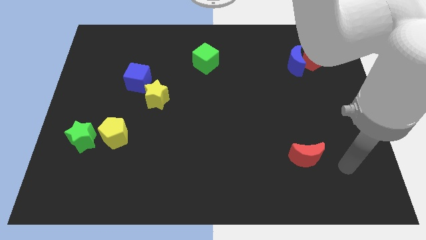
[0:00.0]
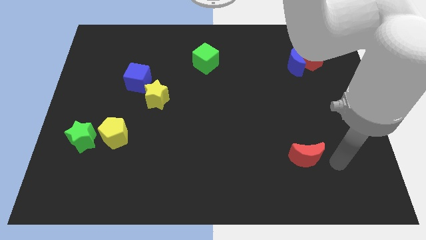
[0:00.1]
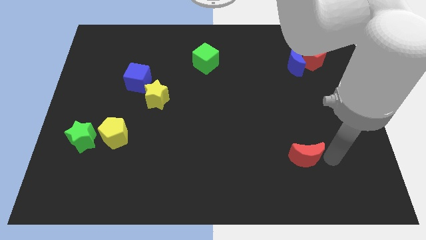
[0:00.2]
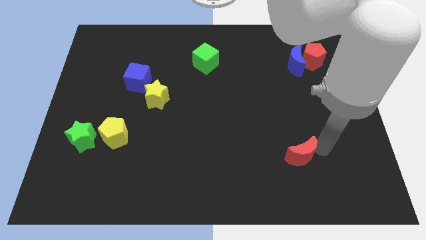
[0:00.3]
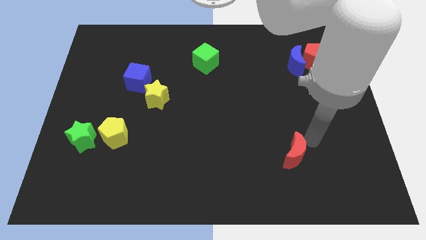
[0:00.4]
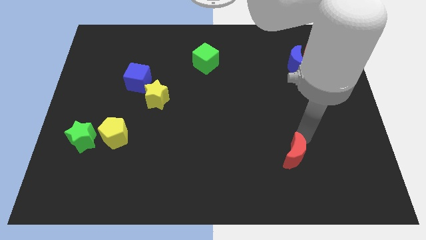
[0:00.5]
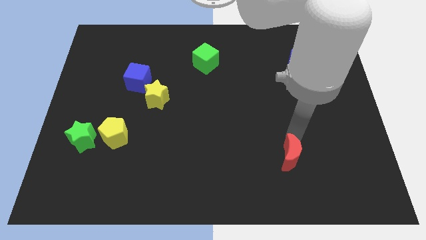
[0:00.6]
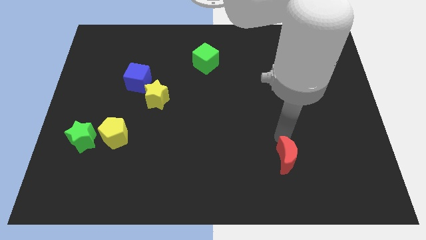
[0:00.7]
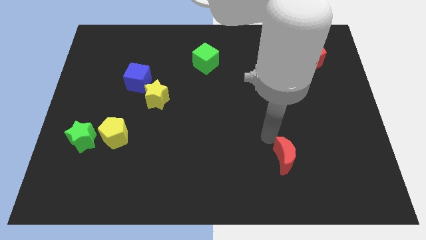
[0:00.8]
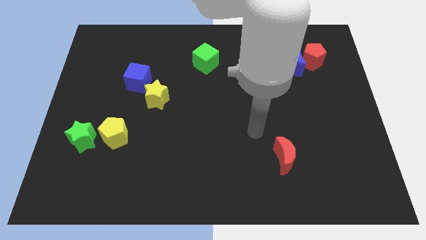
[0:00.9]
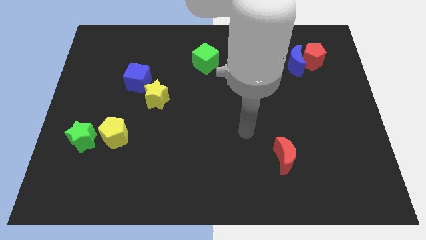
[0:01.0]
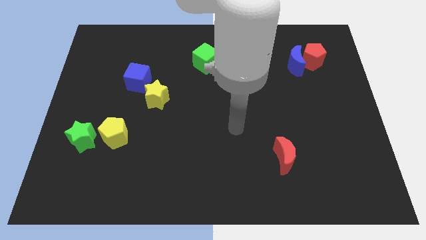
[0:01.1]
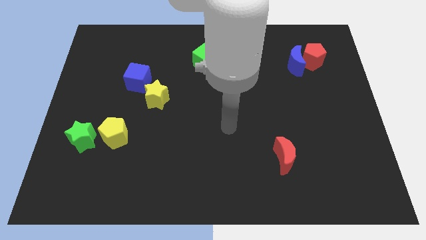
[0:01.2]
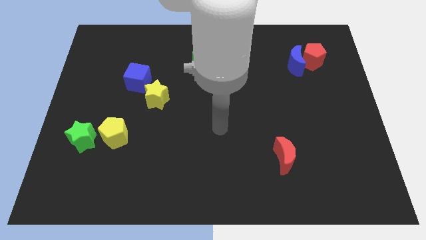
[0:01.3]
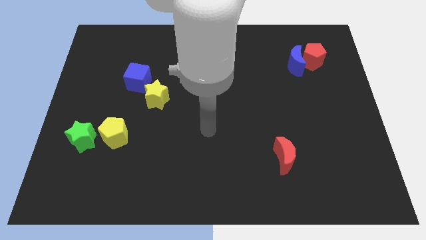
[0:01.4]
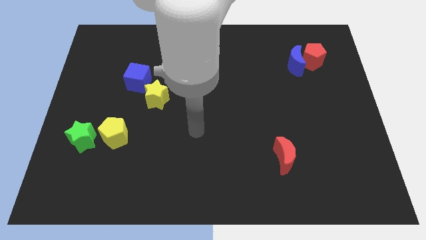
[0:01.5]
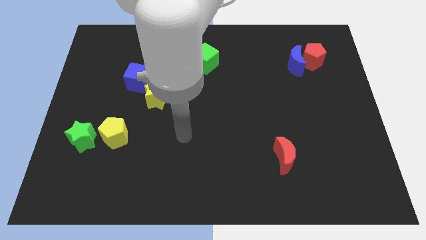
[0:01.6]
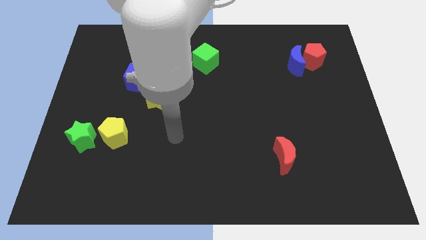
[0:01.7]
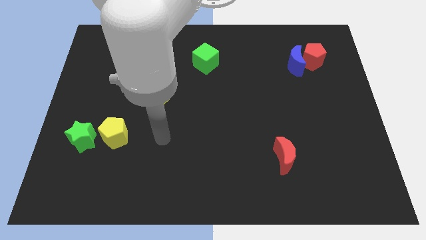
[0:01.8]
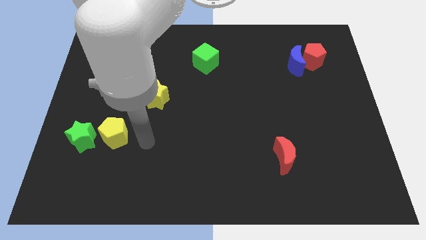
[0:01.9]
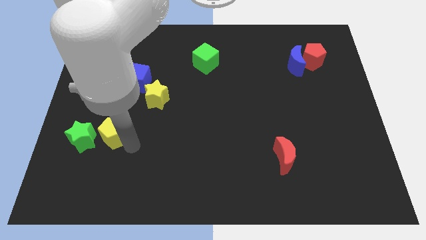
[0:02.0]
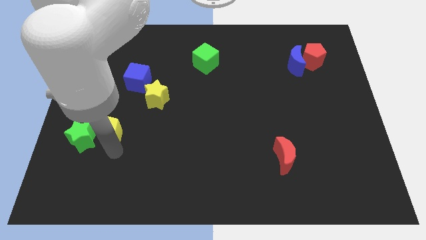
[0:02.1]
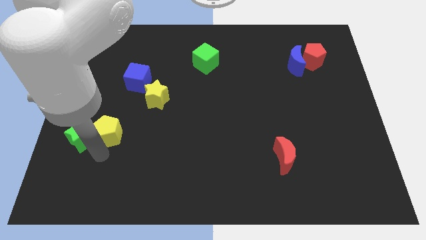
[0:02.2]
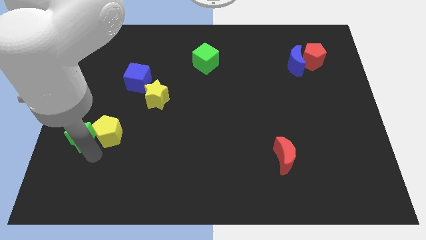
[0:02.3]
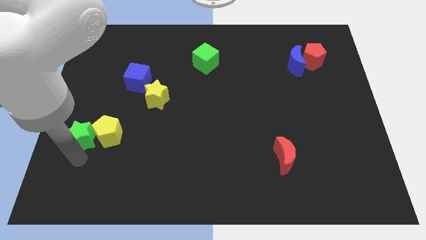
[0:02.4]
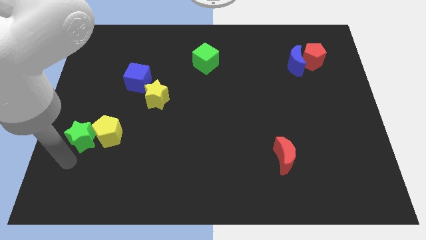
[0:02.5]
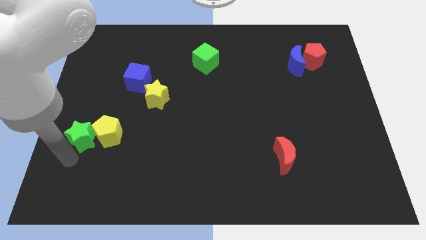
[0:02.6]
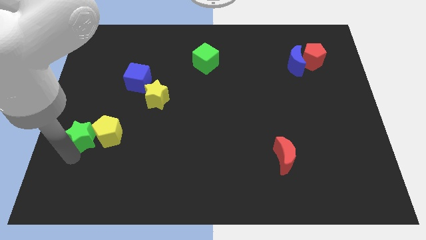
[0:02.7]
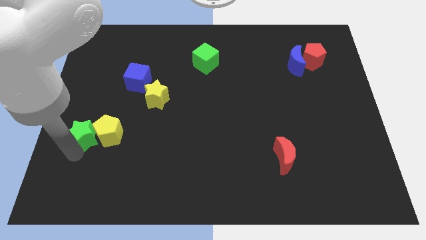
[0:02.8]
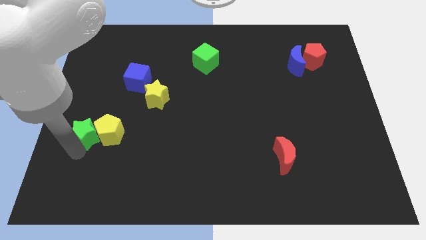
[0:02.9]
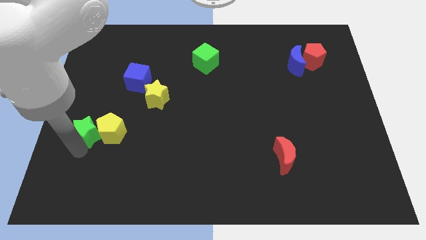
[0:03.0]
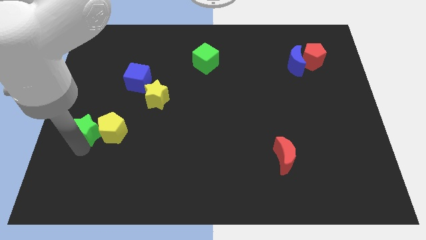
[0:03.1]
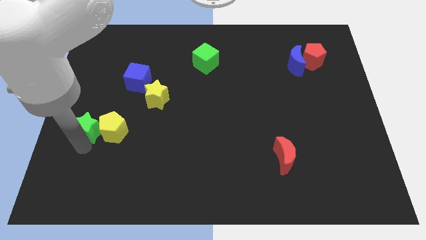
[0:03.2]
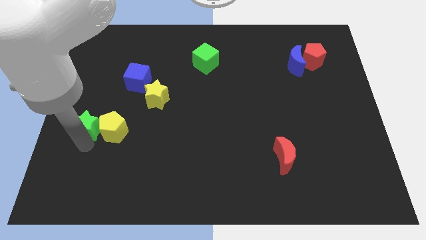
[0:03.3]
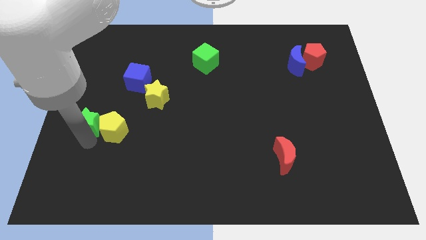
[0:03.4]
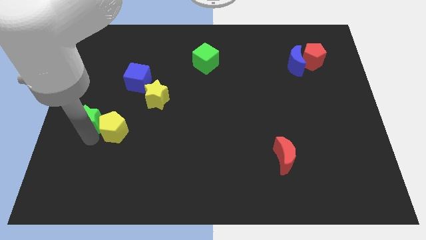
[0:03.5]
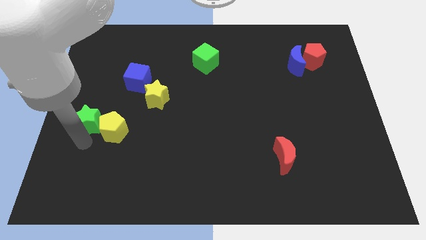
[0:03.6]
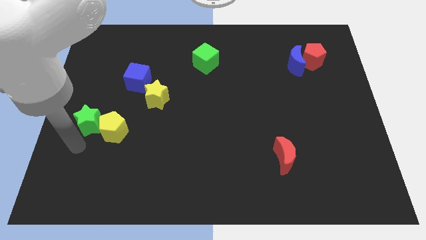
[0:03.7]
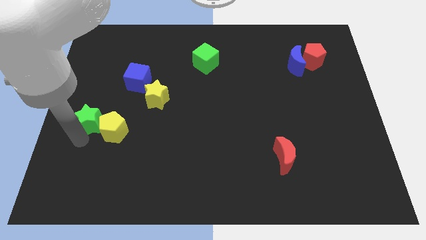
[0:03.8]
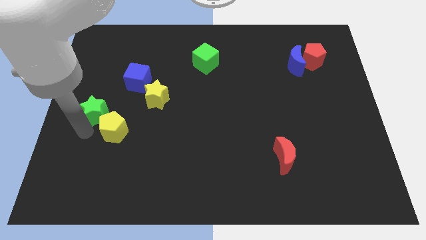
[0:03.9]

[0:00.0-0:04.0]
slightly slide the green star up

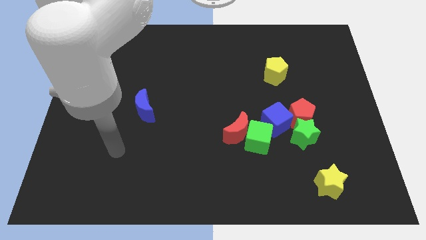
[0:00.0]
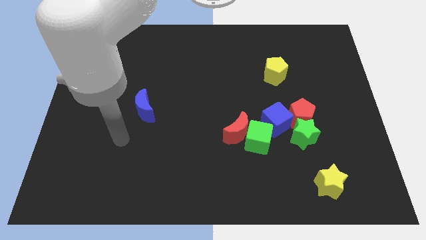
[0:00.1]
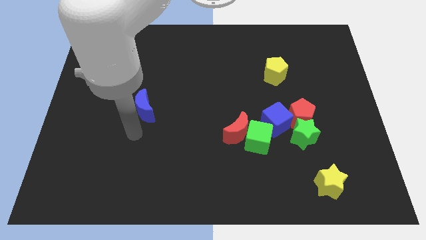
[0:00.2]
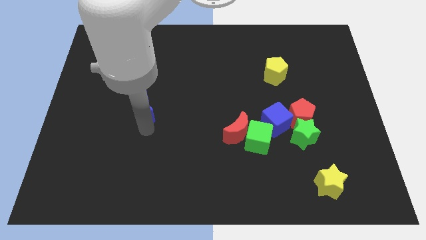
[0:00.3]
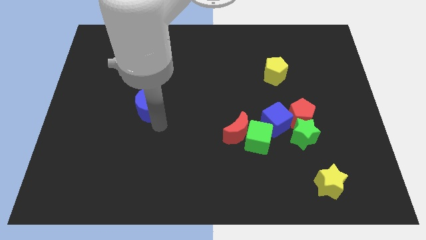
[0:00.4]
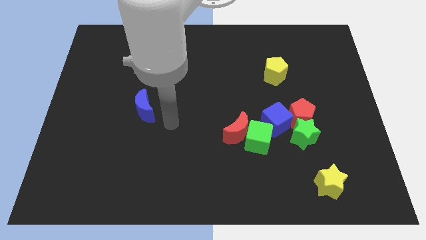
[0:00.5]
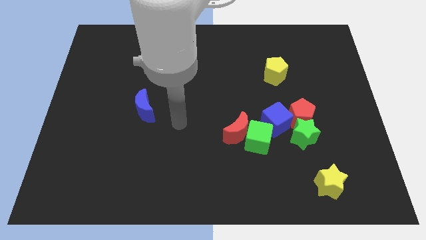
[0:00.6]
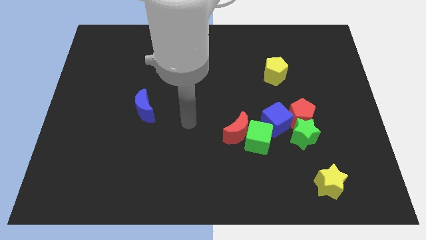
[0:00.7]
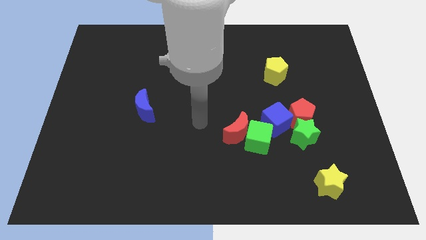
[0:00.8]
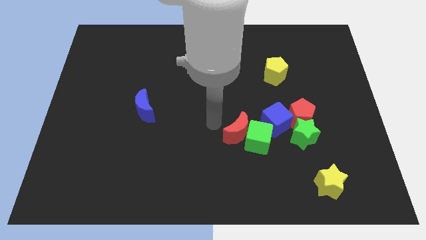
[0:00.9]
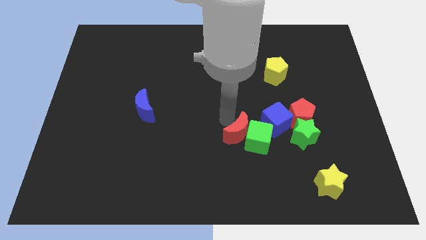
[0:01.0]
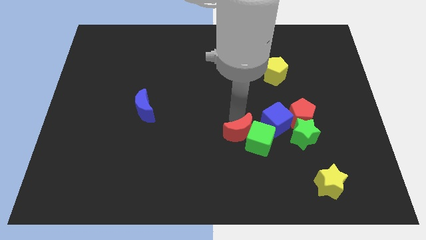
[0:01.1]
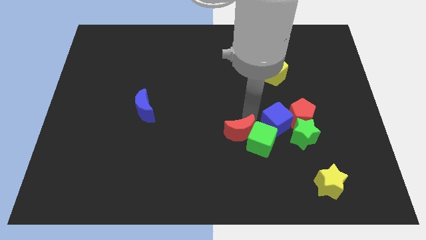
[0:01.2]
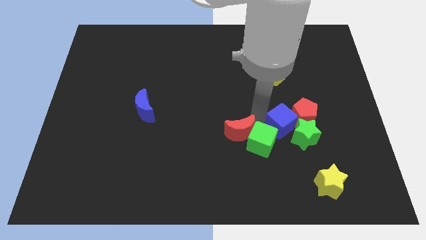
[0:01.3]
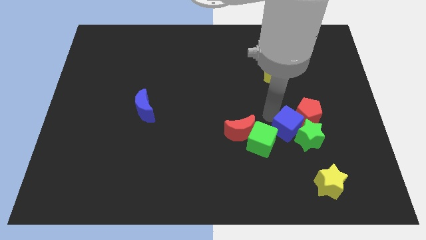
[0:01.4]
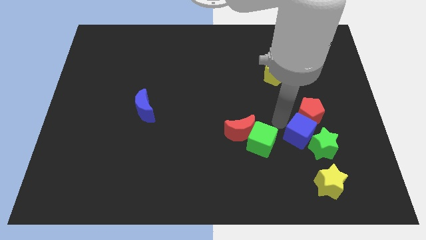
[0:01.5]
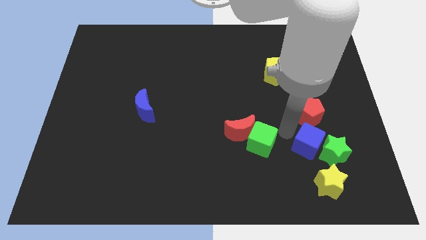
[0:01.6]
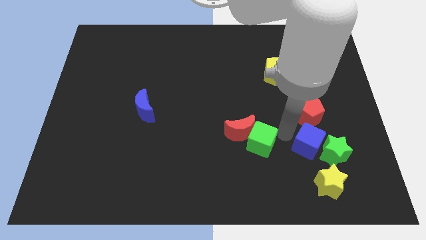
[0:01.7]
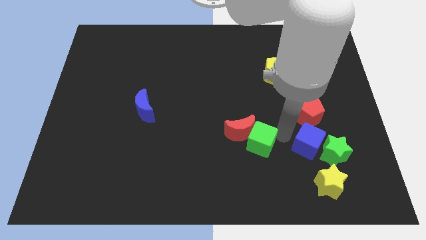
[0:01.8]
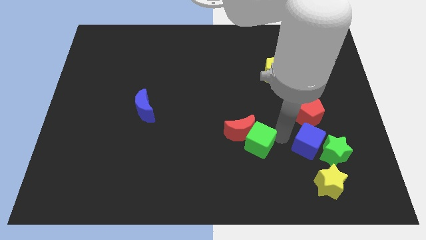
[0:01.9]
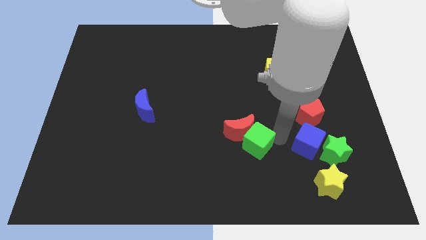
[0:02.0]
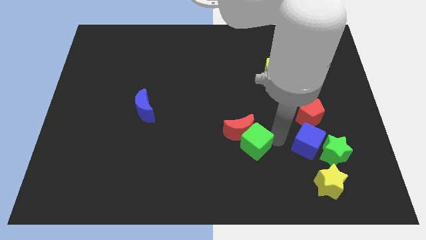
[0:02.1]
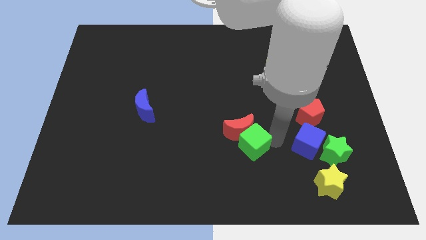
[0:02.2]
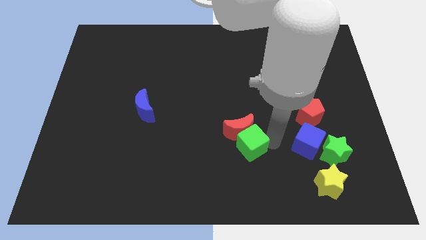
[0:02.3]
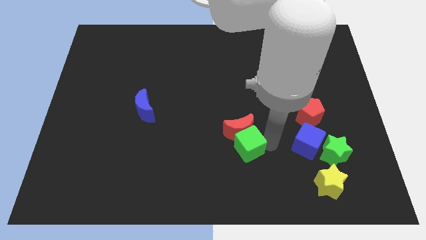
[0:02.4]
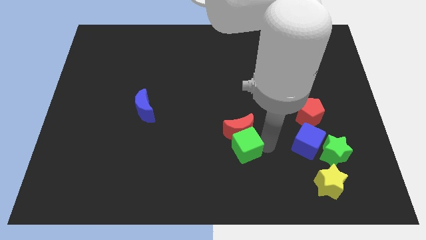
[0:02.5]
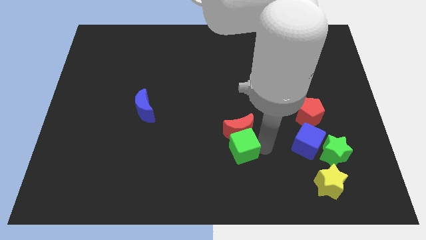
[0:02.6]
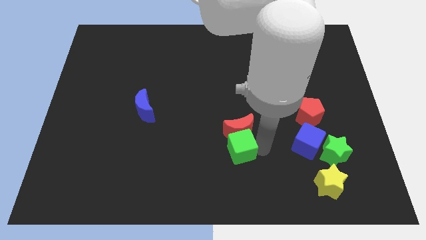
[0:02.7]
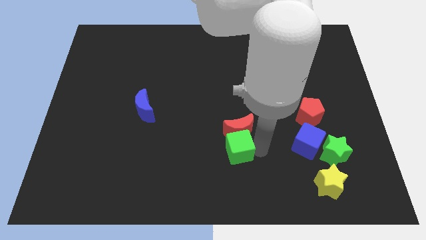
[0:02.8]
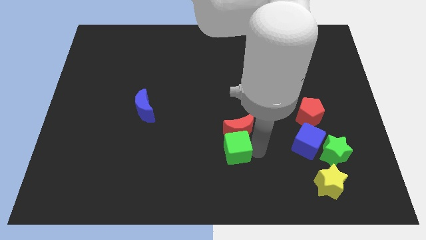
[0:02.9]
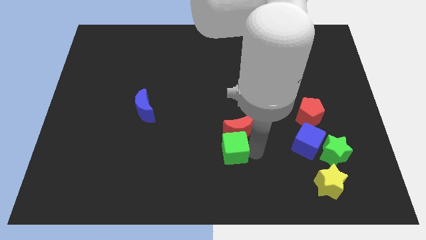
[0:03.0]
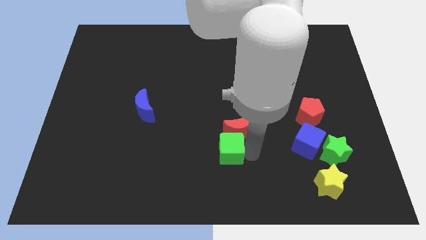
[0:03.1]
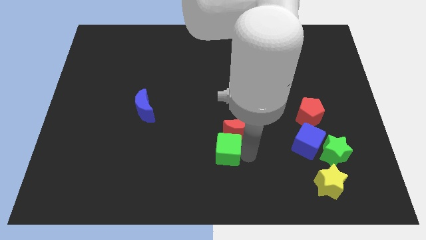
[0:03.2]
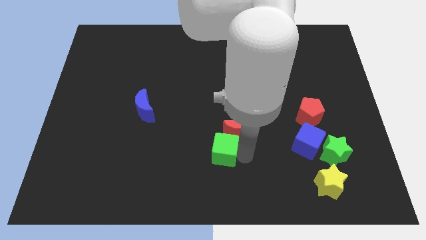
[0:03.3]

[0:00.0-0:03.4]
slide the green cube a little to the left

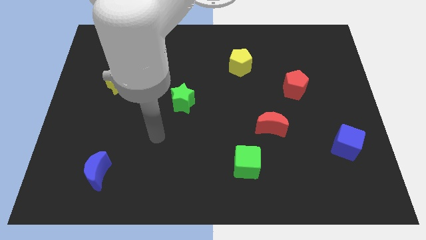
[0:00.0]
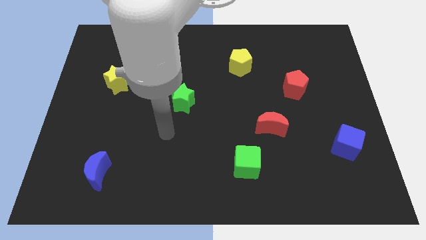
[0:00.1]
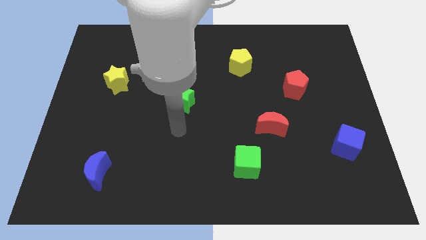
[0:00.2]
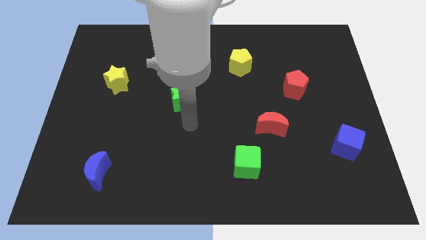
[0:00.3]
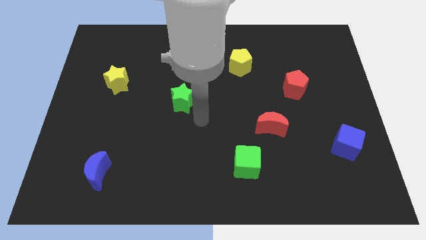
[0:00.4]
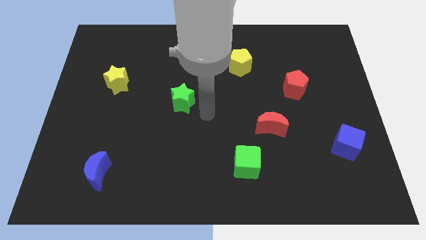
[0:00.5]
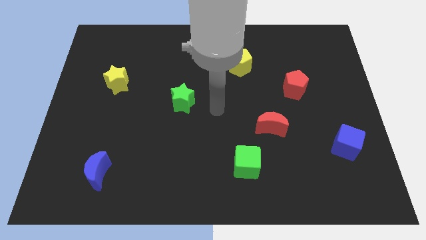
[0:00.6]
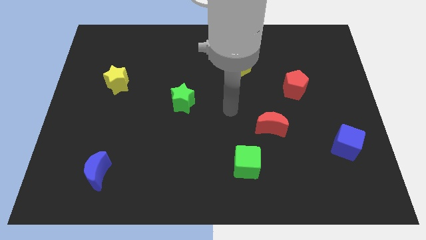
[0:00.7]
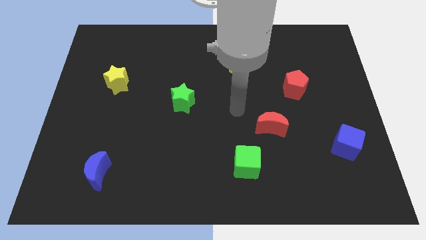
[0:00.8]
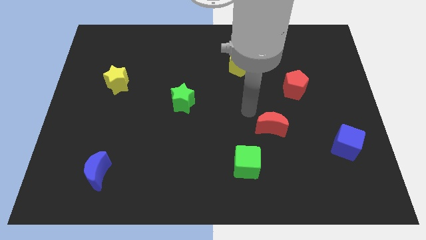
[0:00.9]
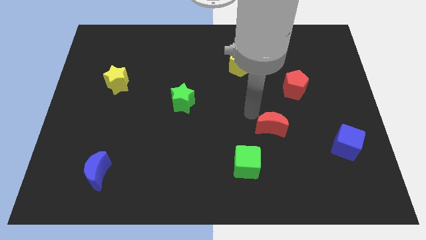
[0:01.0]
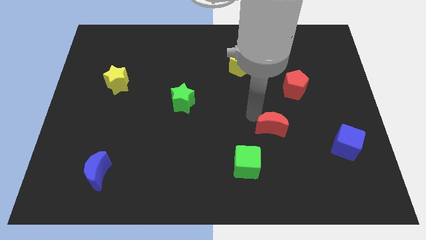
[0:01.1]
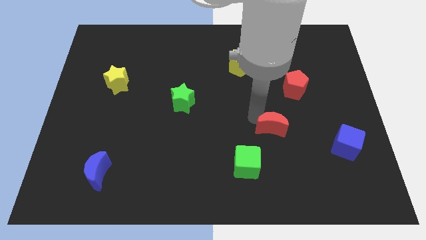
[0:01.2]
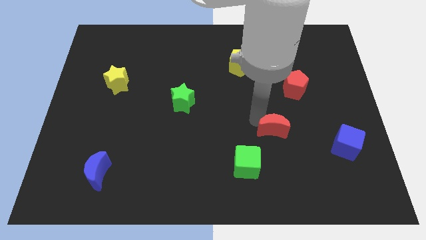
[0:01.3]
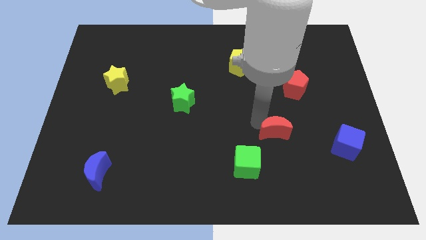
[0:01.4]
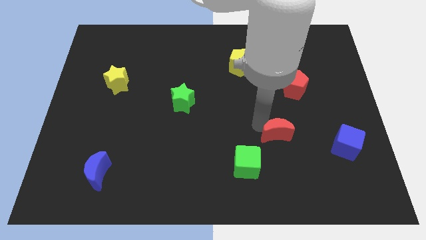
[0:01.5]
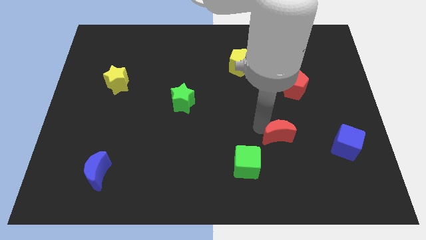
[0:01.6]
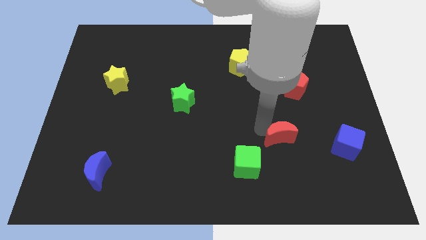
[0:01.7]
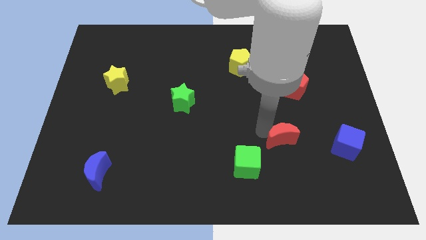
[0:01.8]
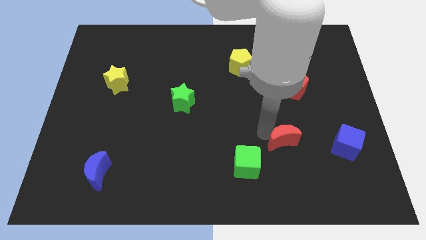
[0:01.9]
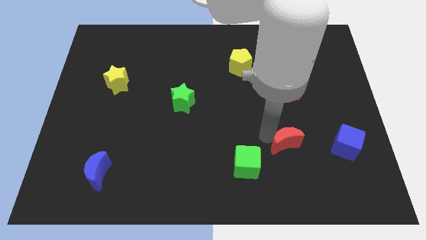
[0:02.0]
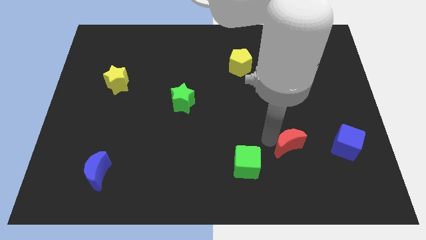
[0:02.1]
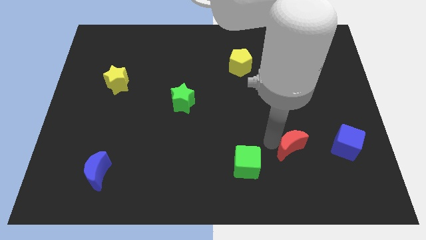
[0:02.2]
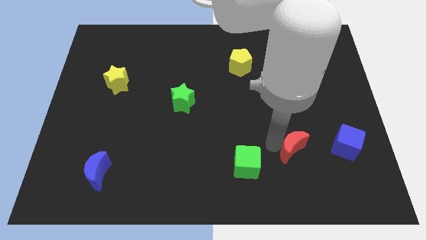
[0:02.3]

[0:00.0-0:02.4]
move the red moon slightly diagonally down and right
